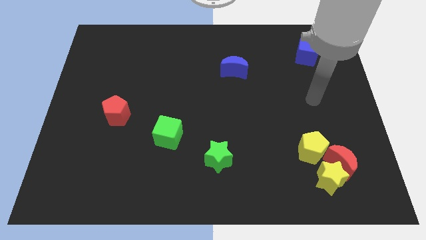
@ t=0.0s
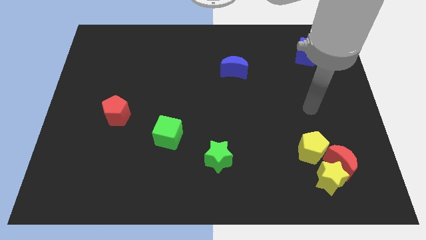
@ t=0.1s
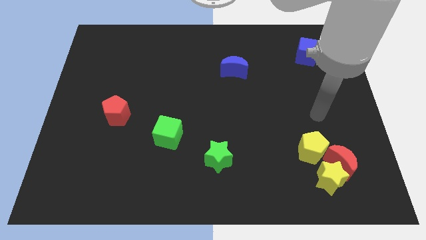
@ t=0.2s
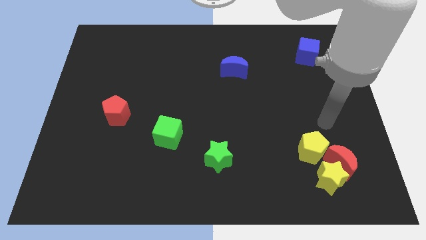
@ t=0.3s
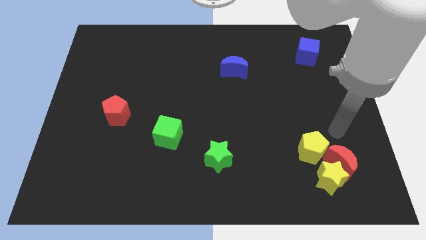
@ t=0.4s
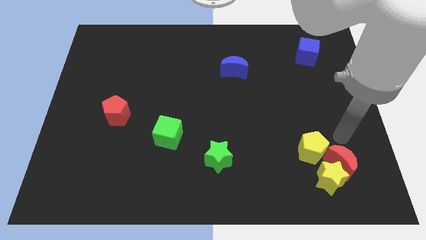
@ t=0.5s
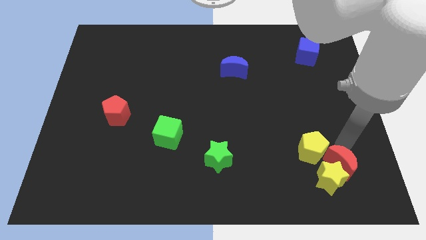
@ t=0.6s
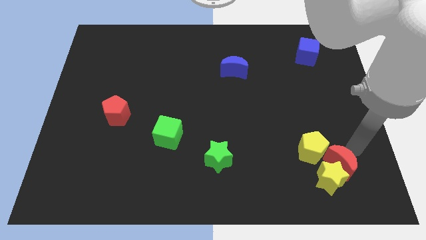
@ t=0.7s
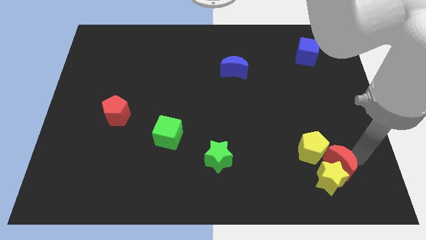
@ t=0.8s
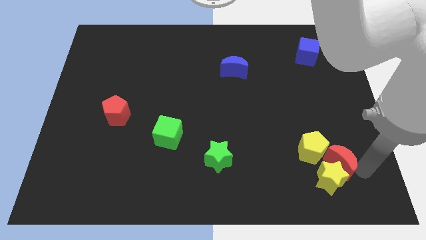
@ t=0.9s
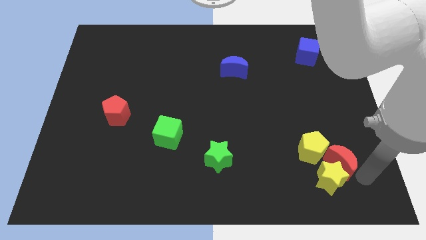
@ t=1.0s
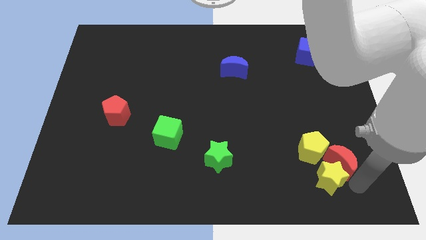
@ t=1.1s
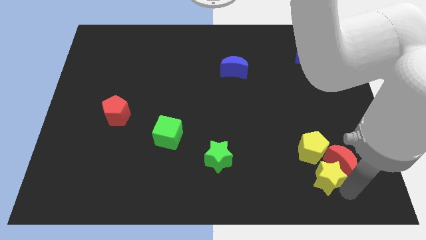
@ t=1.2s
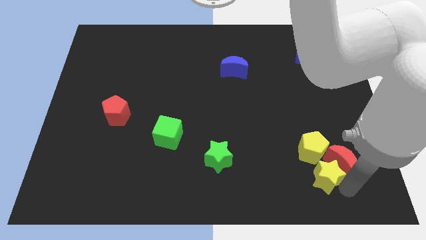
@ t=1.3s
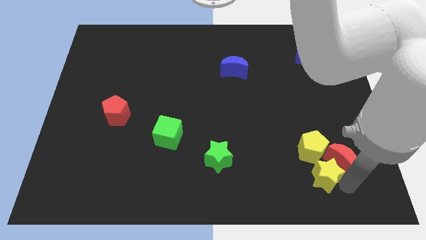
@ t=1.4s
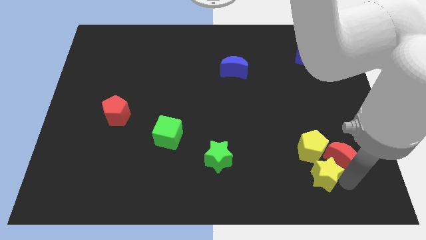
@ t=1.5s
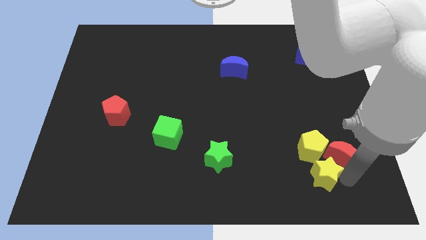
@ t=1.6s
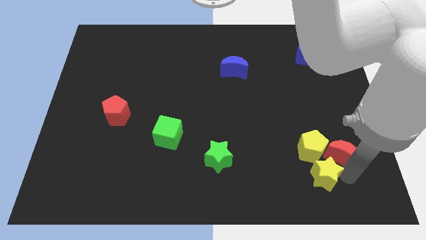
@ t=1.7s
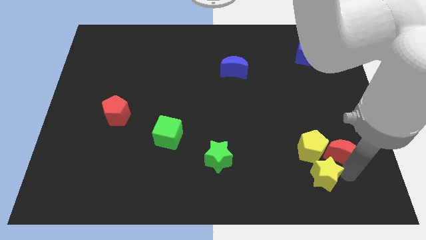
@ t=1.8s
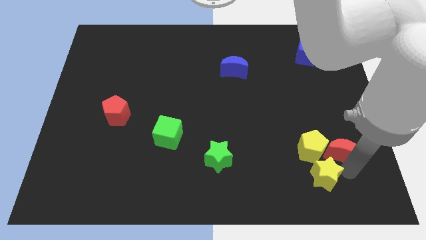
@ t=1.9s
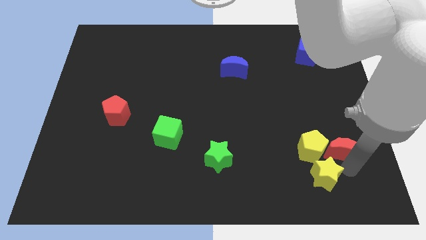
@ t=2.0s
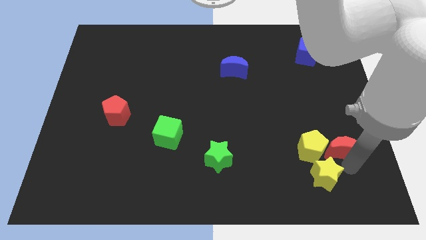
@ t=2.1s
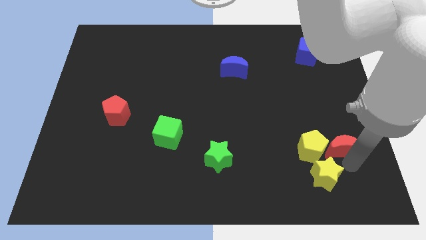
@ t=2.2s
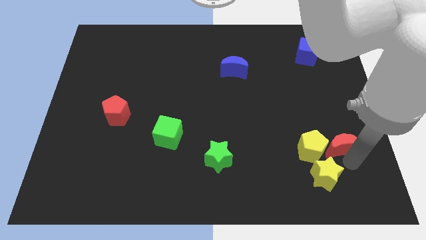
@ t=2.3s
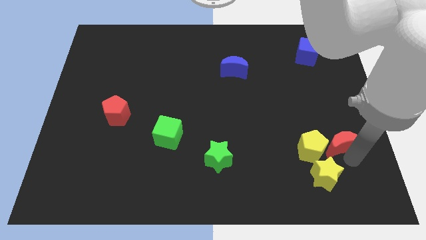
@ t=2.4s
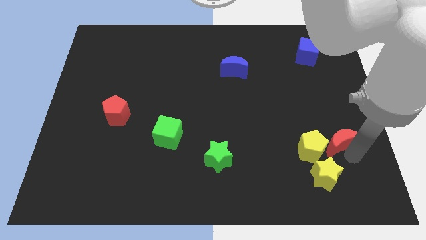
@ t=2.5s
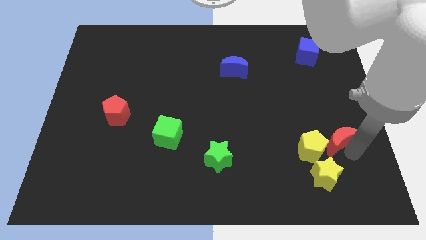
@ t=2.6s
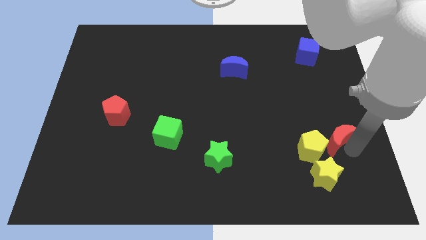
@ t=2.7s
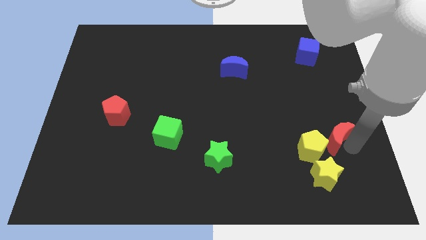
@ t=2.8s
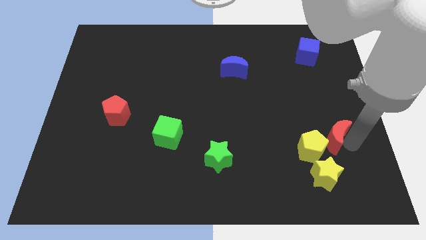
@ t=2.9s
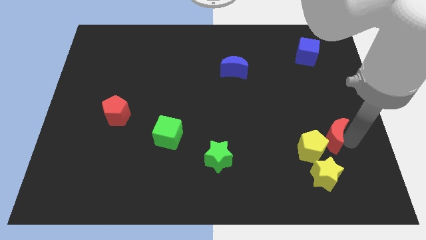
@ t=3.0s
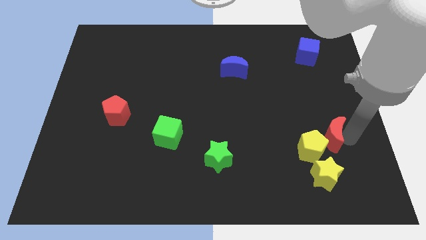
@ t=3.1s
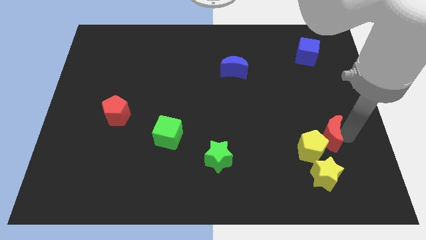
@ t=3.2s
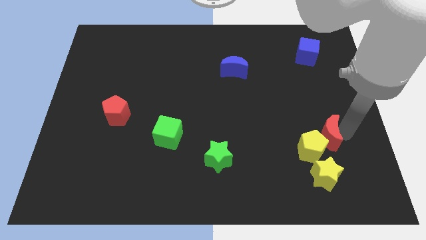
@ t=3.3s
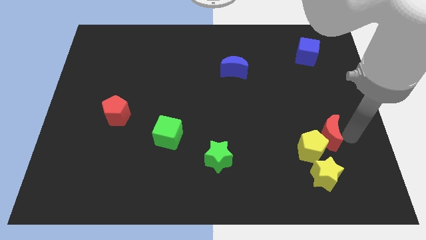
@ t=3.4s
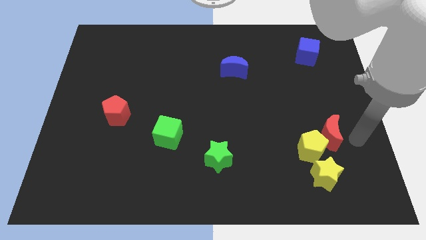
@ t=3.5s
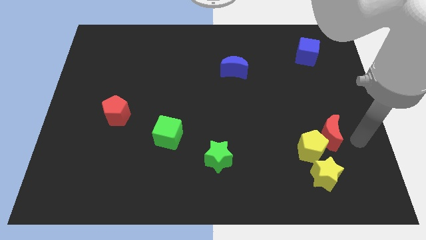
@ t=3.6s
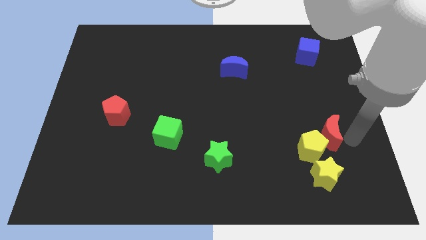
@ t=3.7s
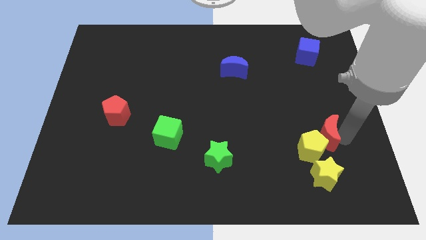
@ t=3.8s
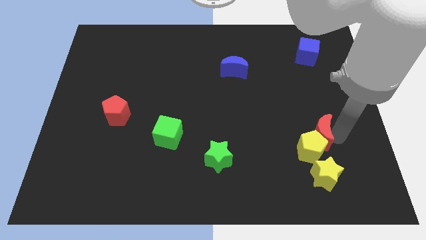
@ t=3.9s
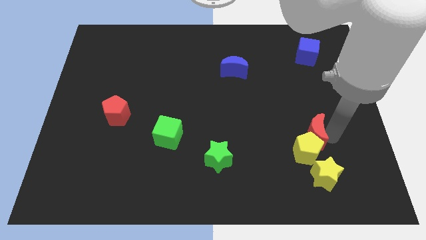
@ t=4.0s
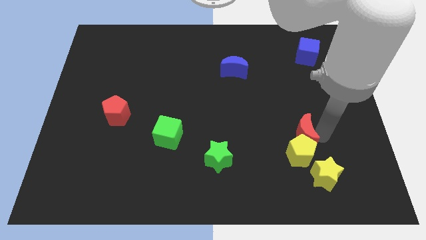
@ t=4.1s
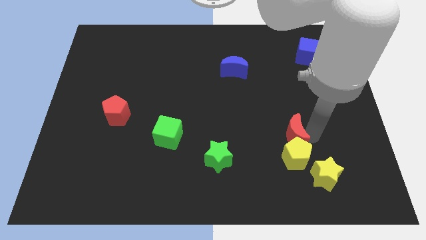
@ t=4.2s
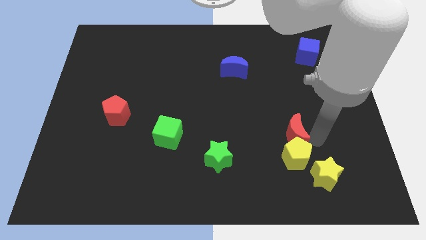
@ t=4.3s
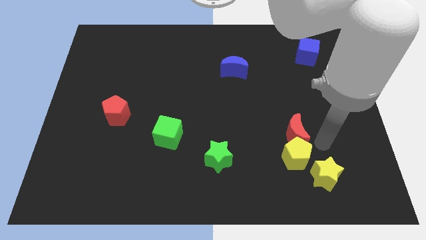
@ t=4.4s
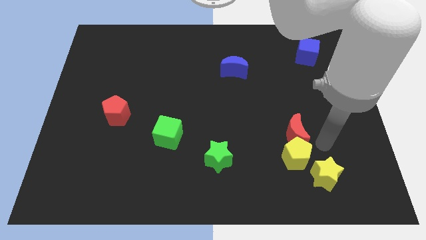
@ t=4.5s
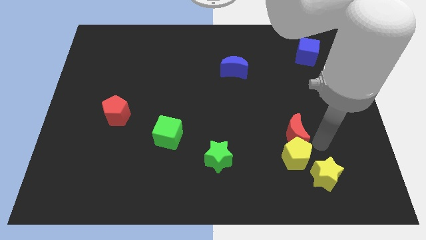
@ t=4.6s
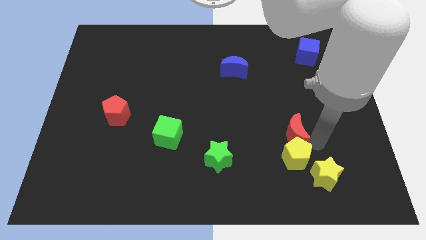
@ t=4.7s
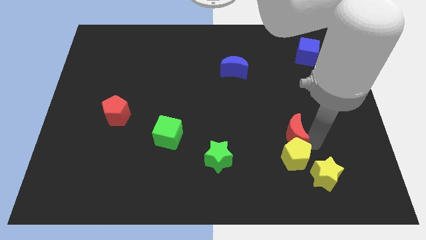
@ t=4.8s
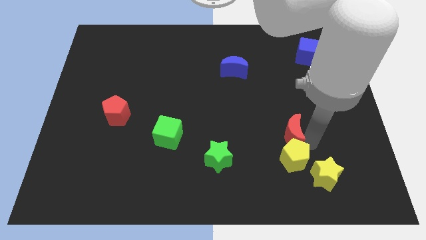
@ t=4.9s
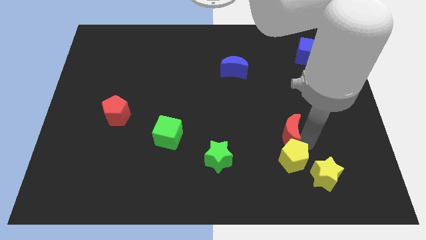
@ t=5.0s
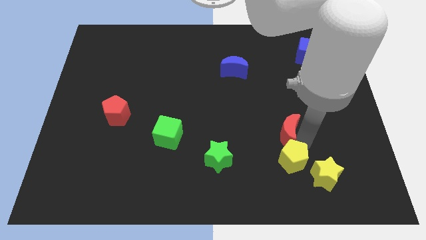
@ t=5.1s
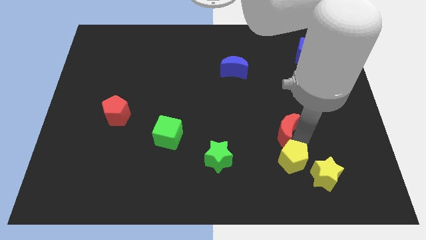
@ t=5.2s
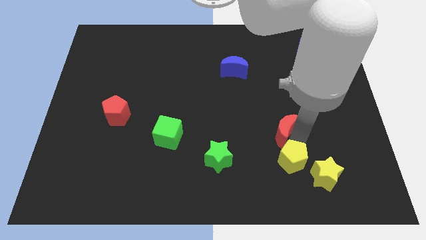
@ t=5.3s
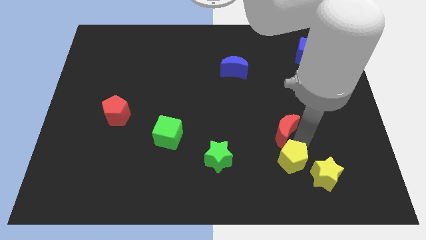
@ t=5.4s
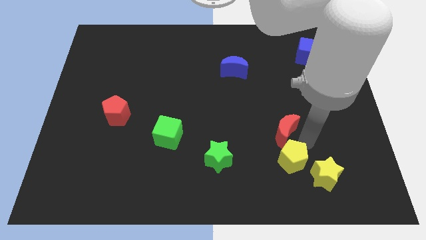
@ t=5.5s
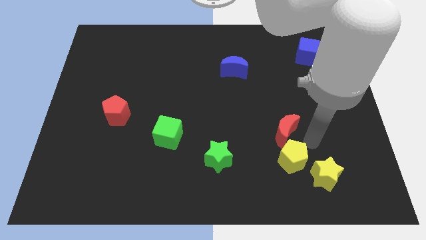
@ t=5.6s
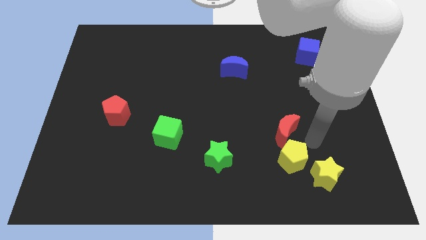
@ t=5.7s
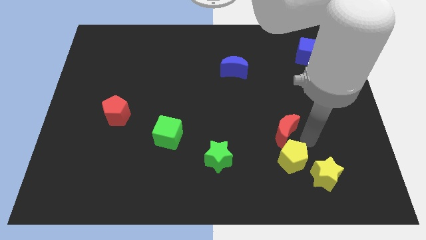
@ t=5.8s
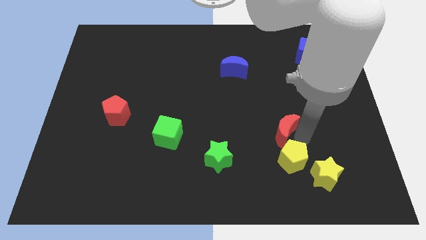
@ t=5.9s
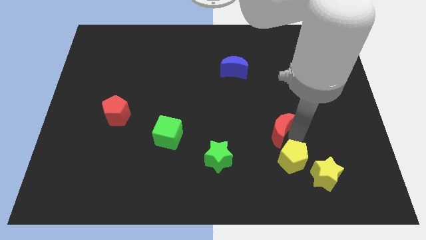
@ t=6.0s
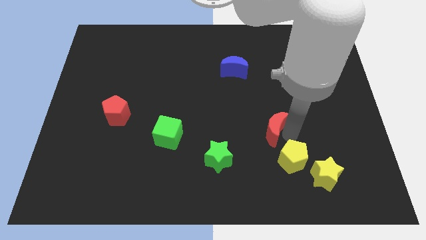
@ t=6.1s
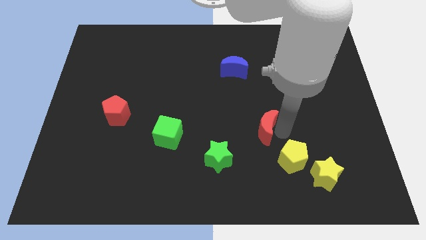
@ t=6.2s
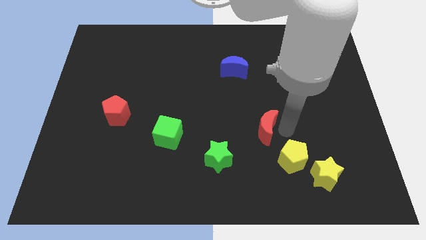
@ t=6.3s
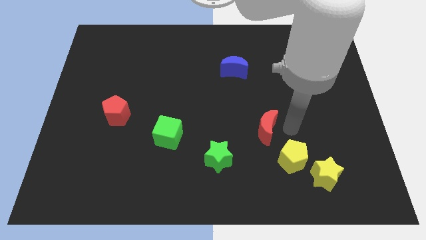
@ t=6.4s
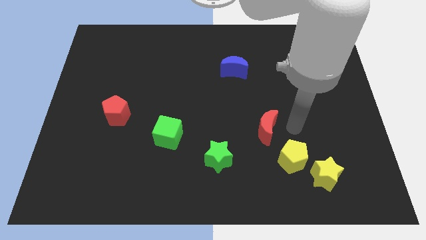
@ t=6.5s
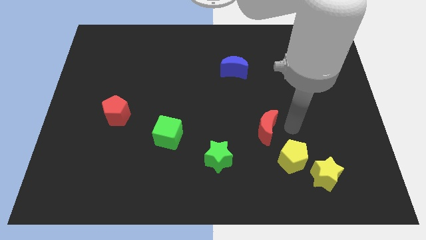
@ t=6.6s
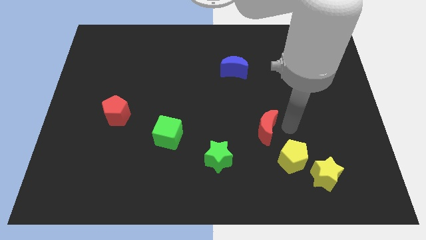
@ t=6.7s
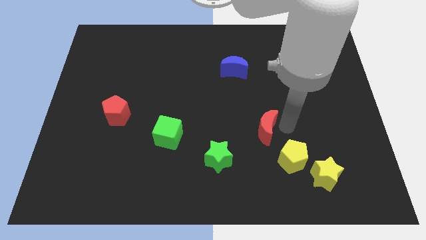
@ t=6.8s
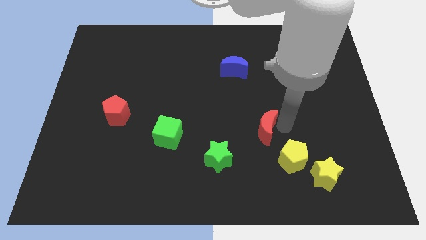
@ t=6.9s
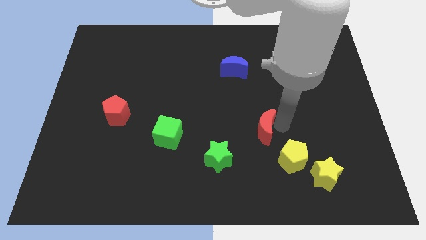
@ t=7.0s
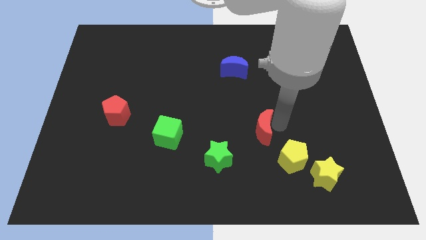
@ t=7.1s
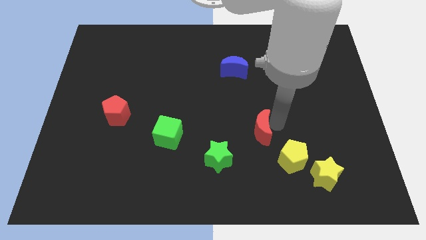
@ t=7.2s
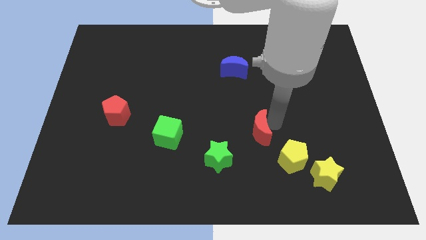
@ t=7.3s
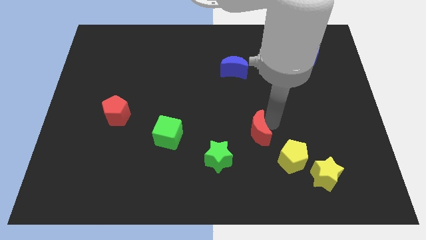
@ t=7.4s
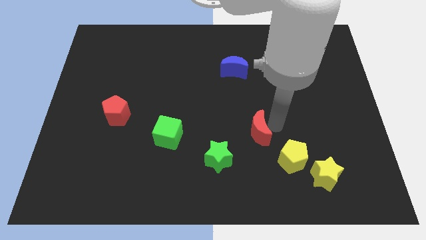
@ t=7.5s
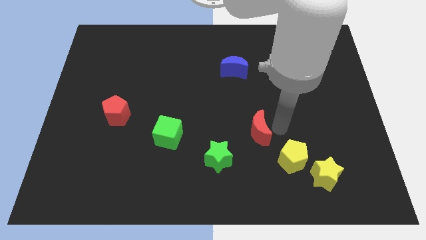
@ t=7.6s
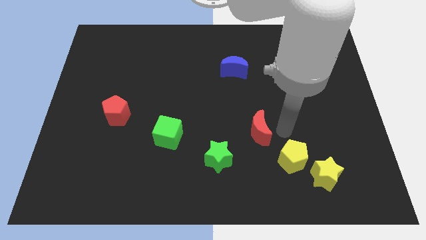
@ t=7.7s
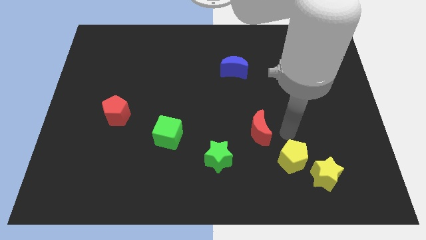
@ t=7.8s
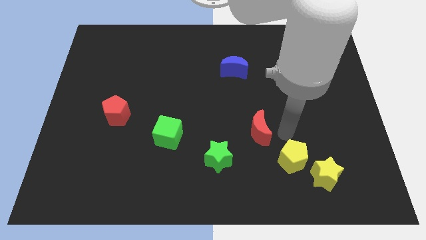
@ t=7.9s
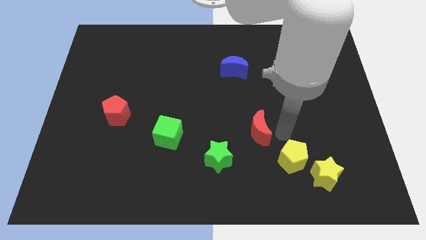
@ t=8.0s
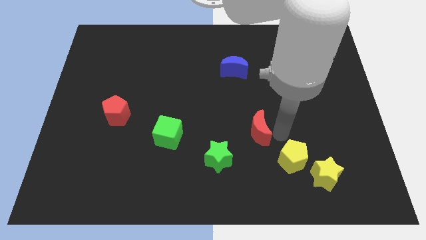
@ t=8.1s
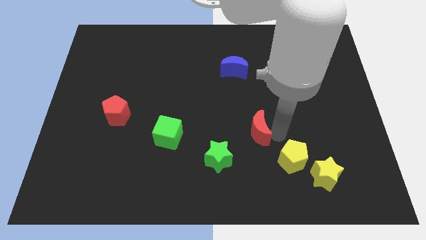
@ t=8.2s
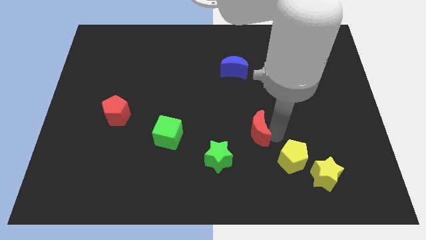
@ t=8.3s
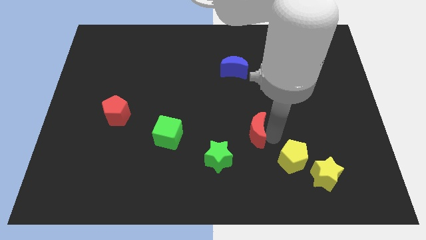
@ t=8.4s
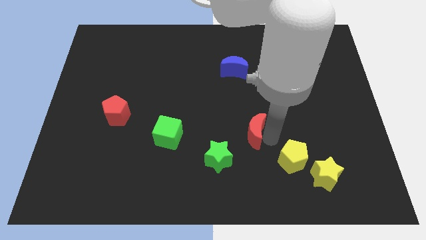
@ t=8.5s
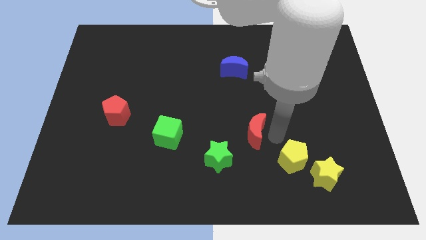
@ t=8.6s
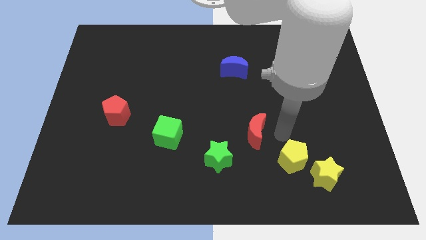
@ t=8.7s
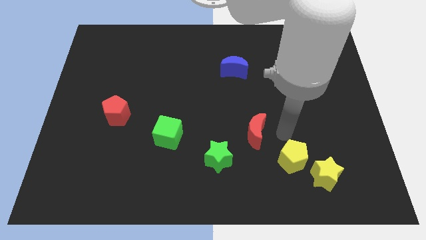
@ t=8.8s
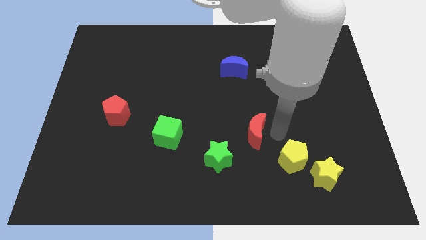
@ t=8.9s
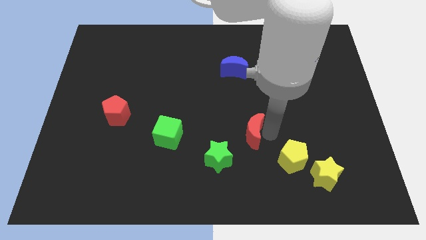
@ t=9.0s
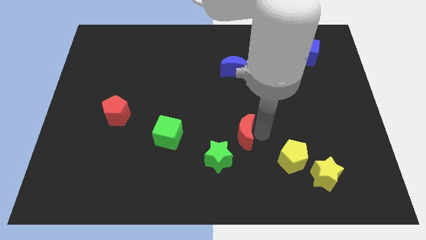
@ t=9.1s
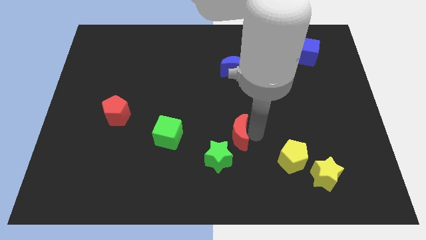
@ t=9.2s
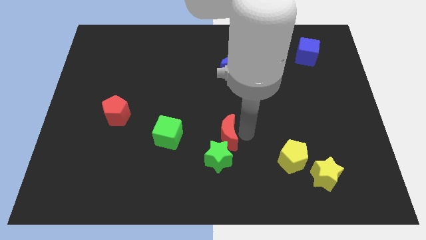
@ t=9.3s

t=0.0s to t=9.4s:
slide the red moon to the left
